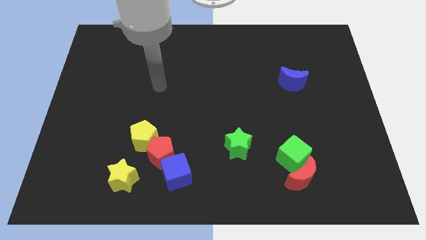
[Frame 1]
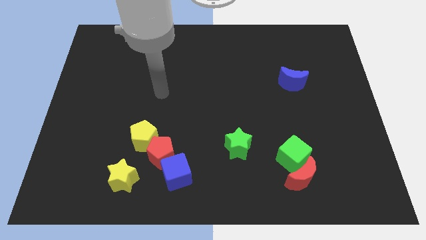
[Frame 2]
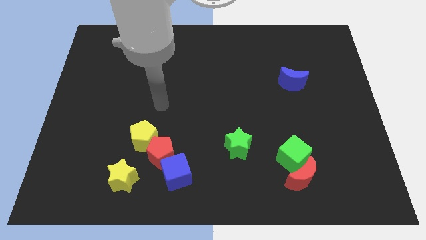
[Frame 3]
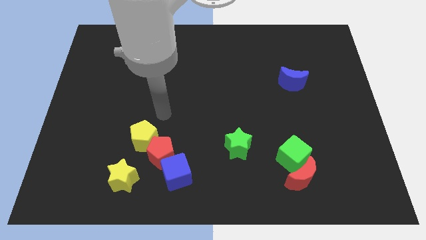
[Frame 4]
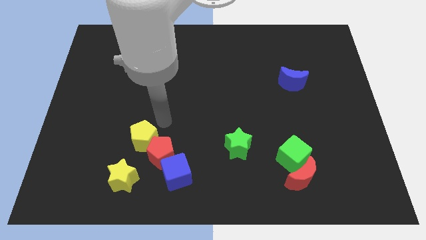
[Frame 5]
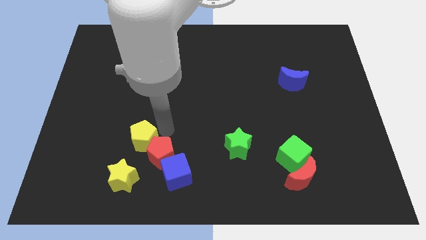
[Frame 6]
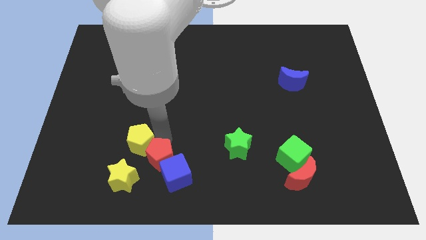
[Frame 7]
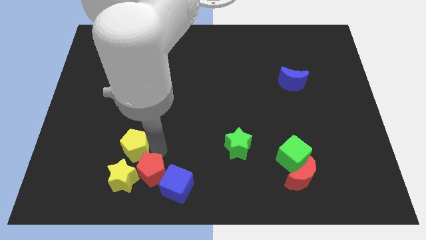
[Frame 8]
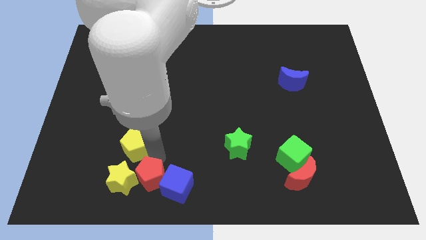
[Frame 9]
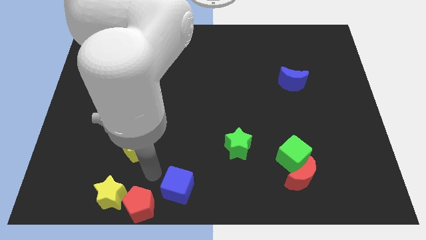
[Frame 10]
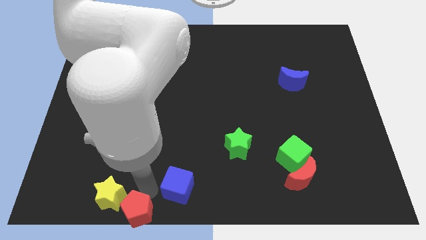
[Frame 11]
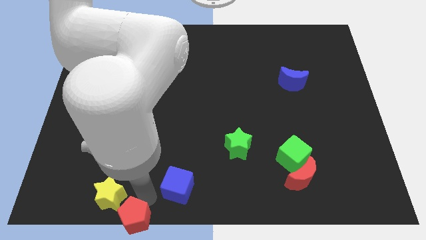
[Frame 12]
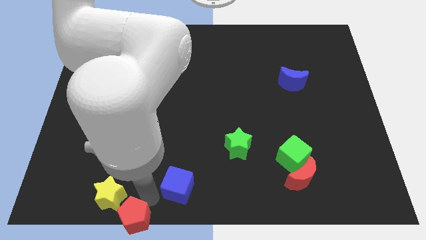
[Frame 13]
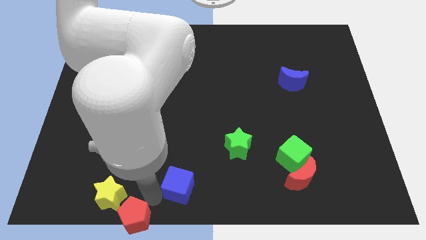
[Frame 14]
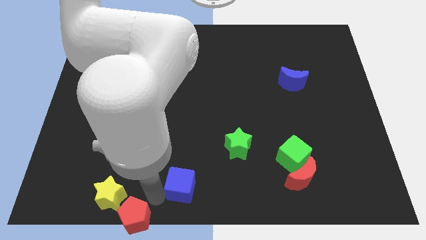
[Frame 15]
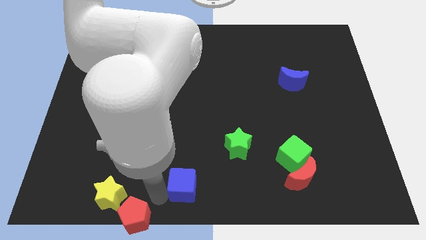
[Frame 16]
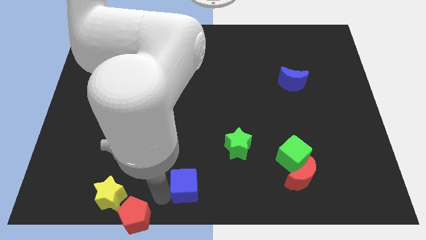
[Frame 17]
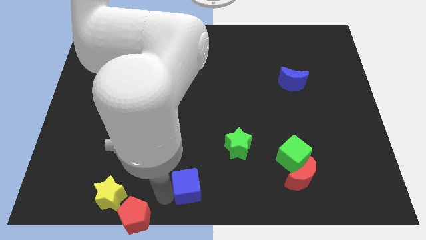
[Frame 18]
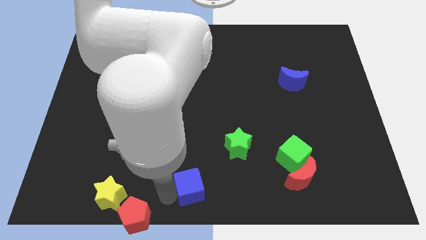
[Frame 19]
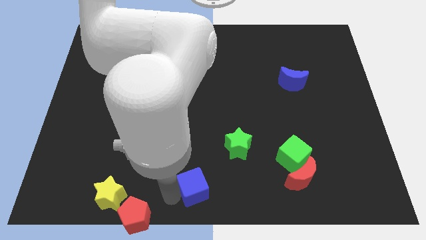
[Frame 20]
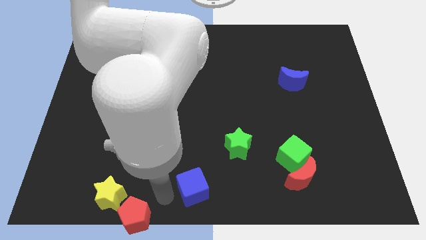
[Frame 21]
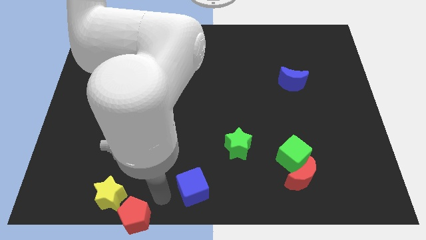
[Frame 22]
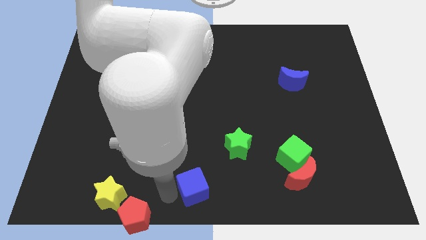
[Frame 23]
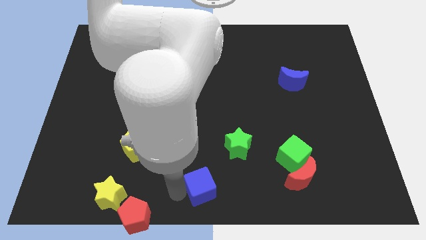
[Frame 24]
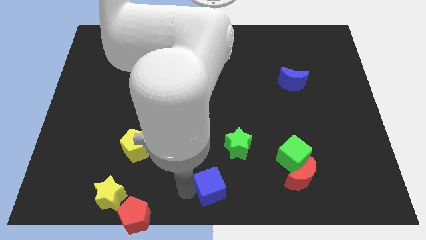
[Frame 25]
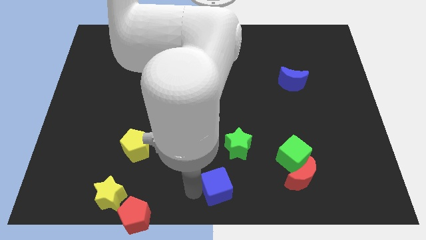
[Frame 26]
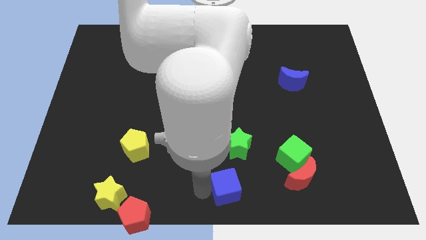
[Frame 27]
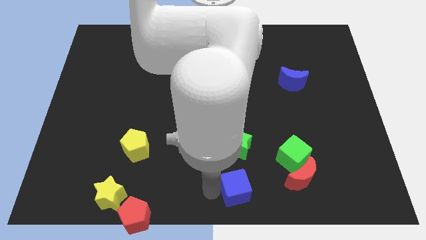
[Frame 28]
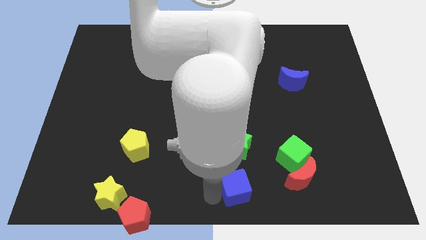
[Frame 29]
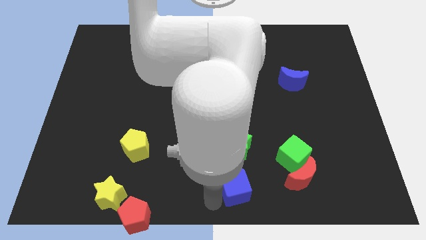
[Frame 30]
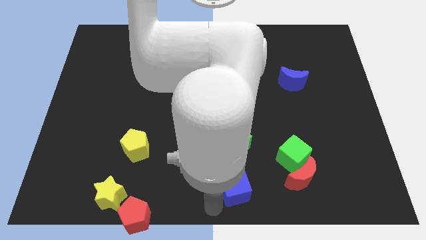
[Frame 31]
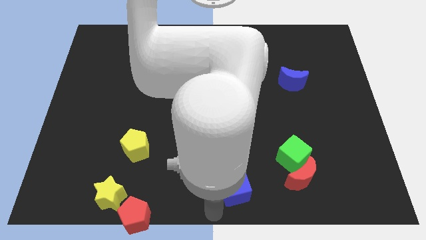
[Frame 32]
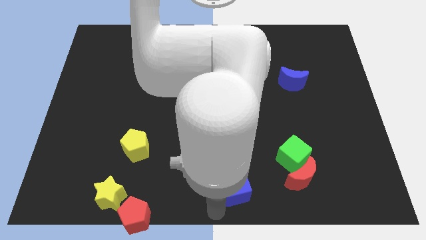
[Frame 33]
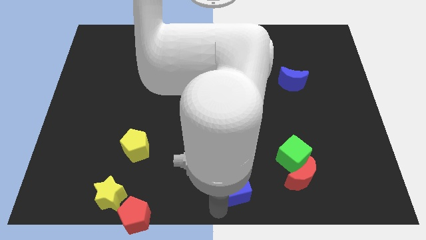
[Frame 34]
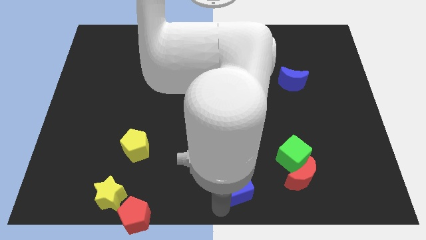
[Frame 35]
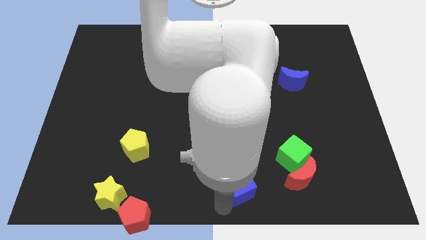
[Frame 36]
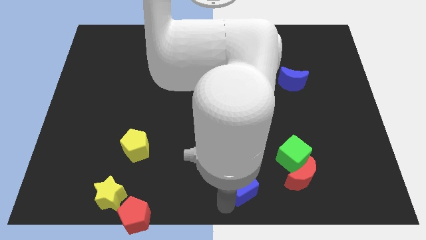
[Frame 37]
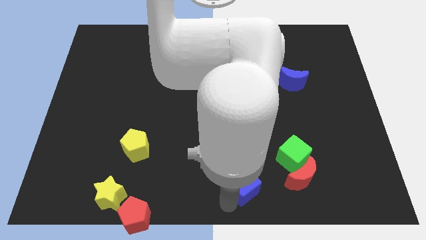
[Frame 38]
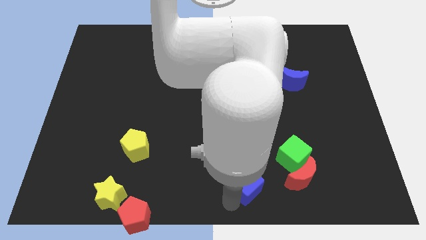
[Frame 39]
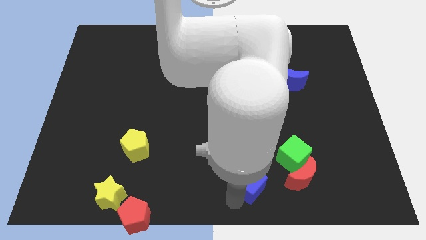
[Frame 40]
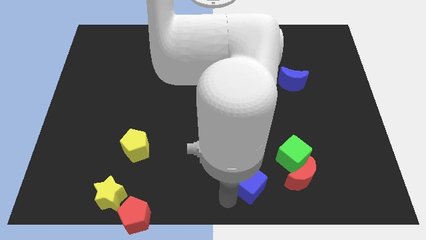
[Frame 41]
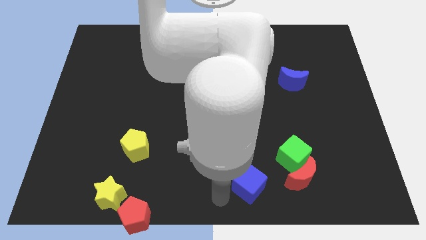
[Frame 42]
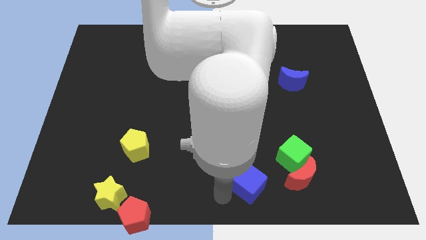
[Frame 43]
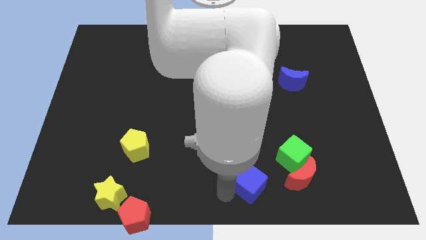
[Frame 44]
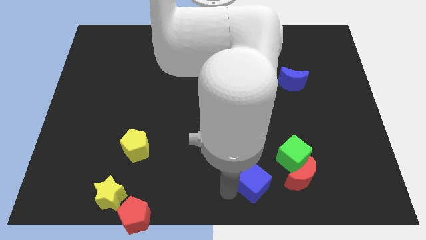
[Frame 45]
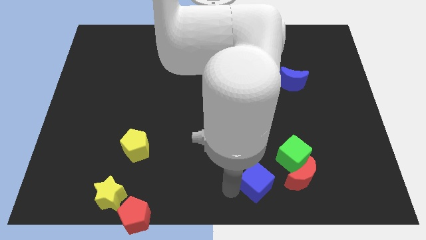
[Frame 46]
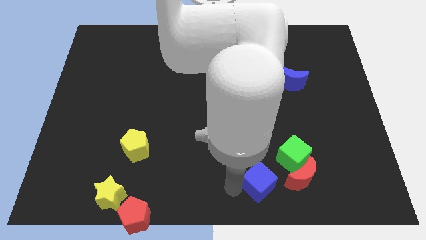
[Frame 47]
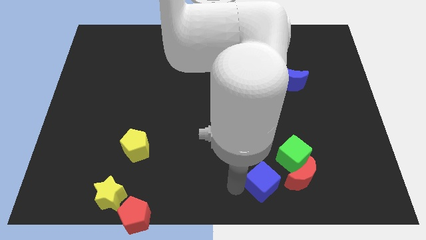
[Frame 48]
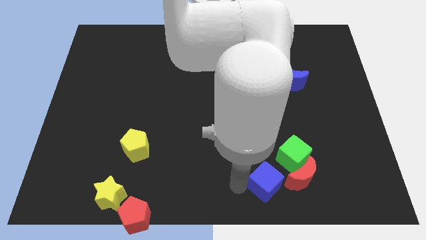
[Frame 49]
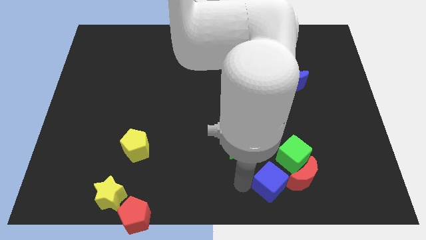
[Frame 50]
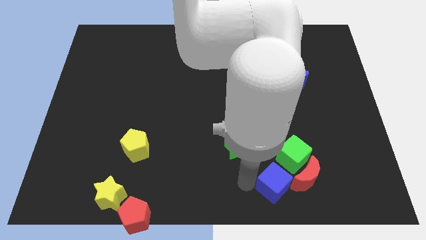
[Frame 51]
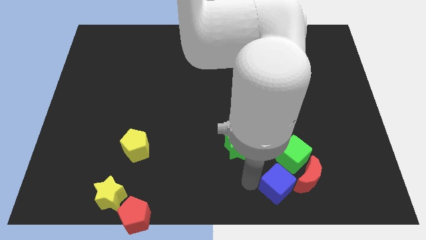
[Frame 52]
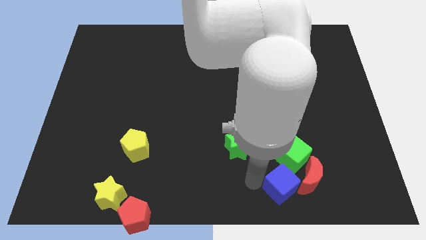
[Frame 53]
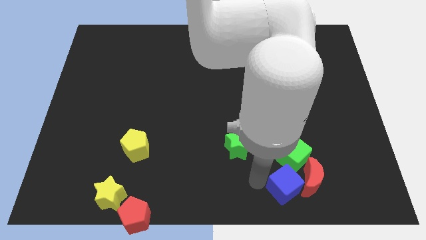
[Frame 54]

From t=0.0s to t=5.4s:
push the blue cube next to the red moon
